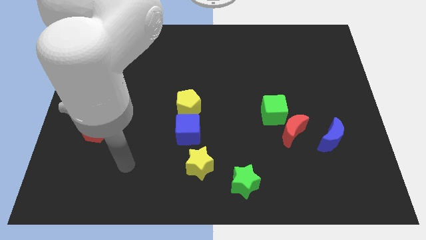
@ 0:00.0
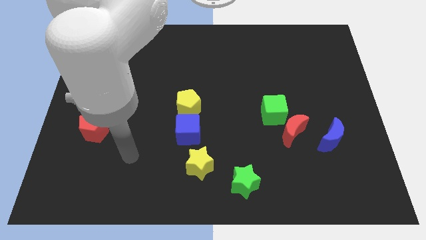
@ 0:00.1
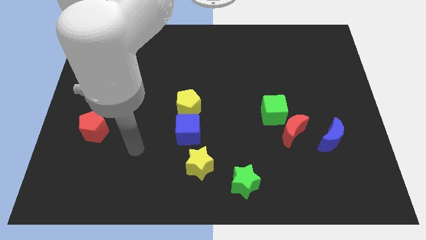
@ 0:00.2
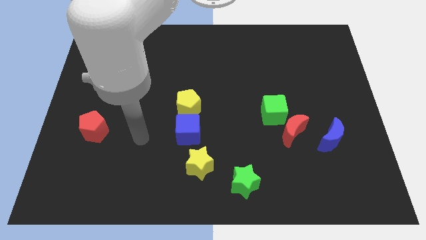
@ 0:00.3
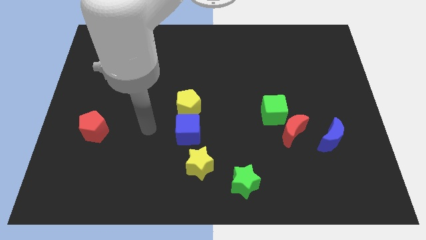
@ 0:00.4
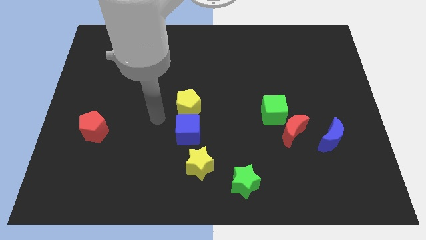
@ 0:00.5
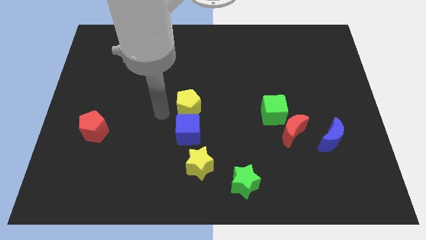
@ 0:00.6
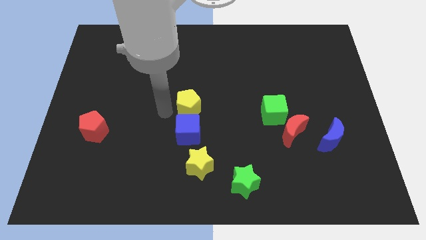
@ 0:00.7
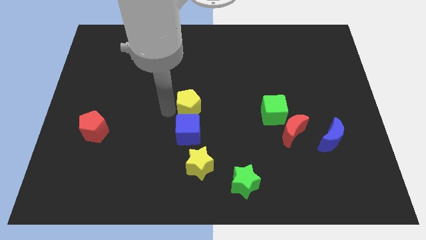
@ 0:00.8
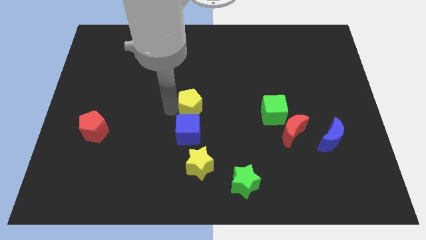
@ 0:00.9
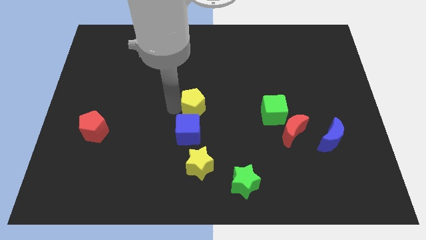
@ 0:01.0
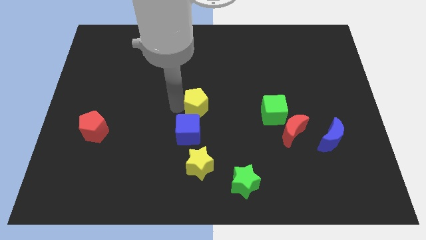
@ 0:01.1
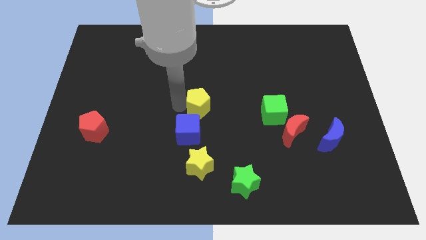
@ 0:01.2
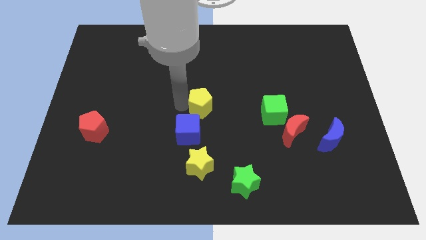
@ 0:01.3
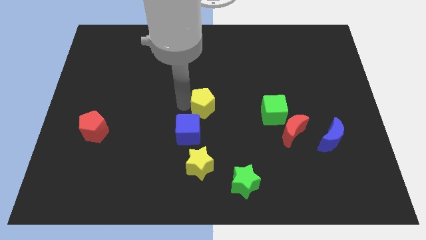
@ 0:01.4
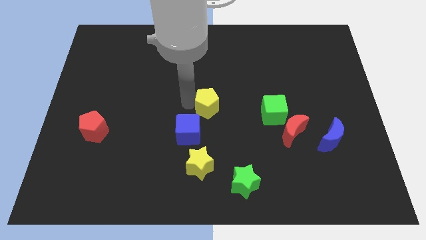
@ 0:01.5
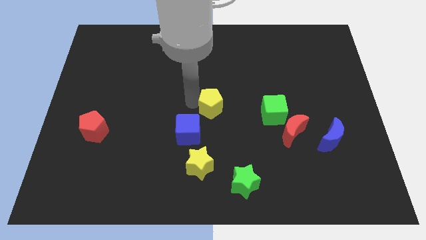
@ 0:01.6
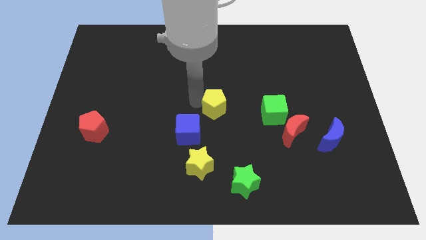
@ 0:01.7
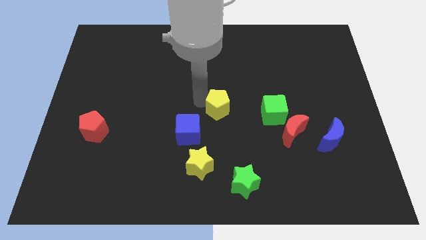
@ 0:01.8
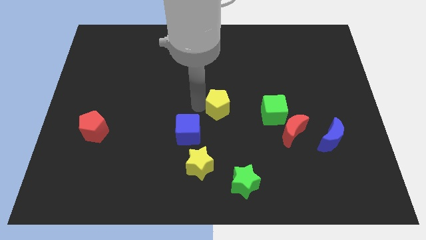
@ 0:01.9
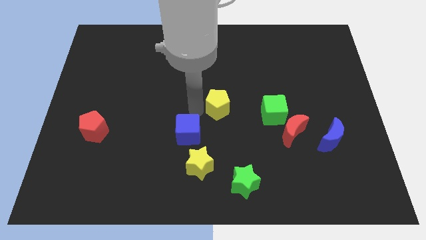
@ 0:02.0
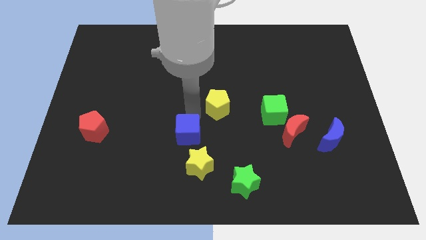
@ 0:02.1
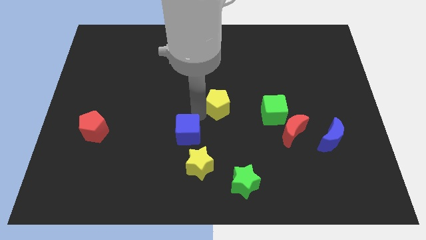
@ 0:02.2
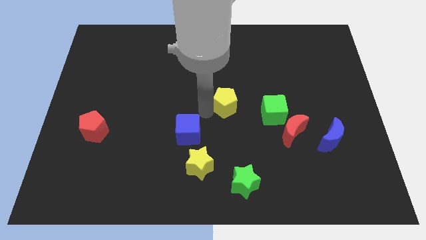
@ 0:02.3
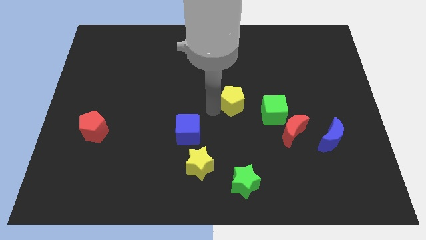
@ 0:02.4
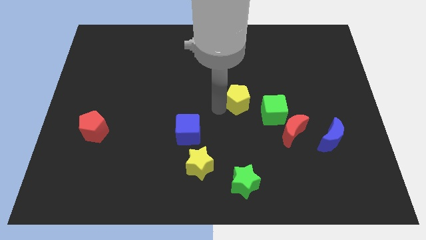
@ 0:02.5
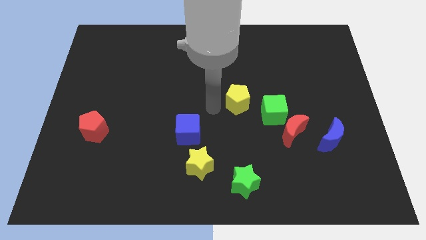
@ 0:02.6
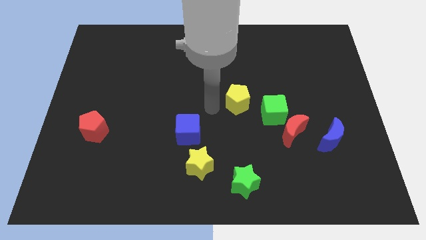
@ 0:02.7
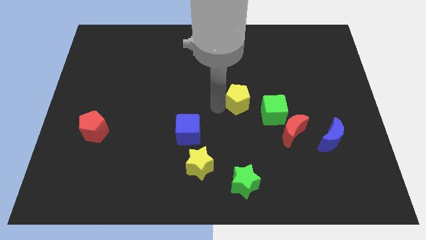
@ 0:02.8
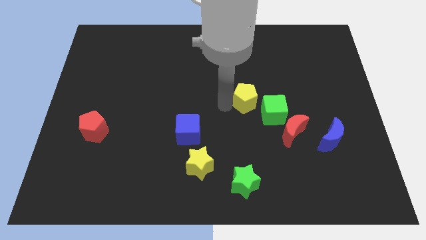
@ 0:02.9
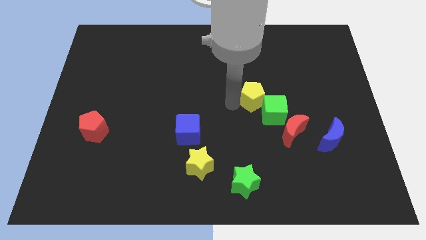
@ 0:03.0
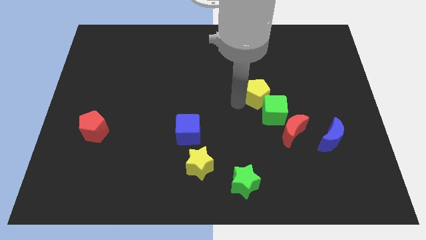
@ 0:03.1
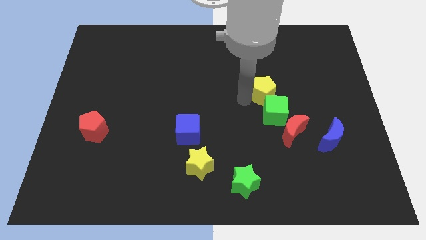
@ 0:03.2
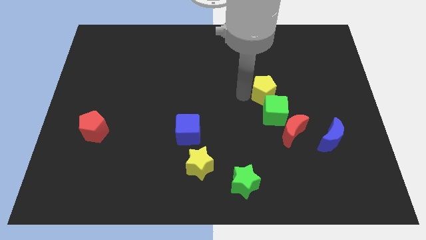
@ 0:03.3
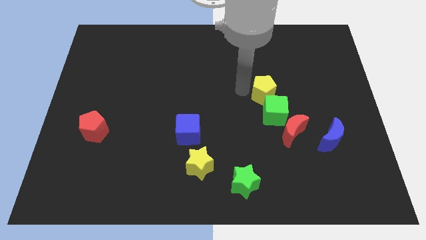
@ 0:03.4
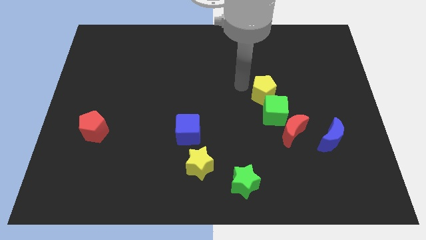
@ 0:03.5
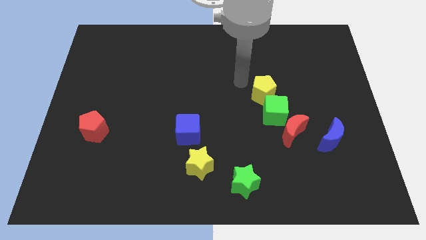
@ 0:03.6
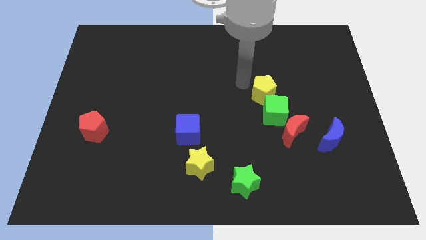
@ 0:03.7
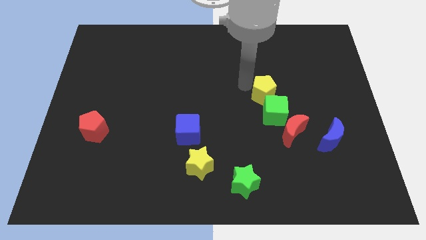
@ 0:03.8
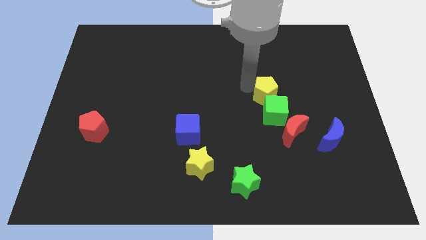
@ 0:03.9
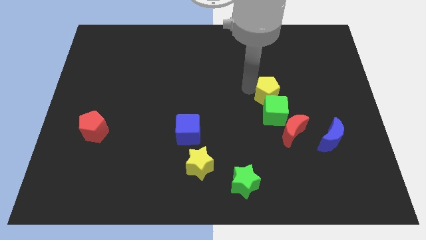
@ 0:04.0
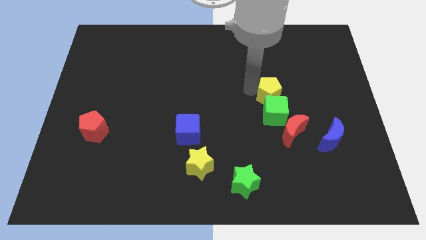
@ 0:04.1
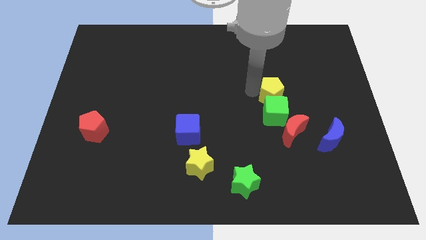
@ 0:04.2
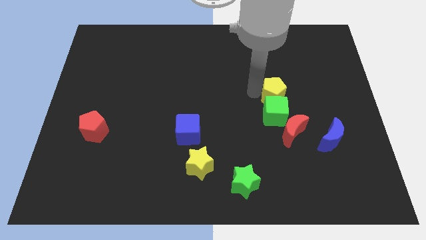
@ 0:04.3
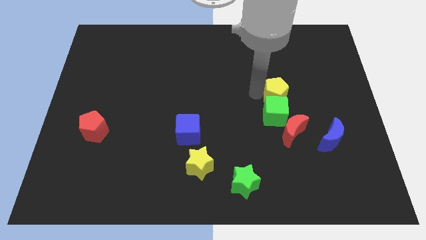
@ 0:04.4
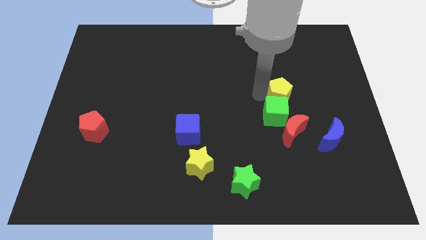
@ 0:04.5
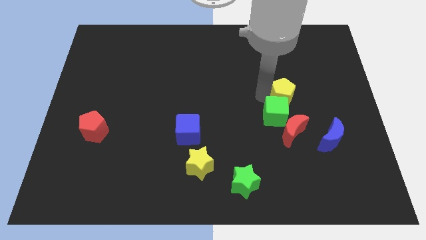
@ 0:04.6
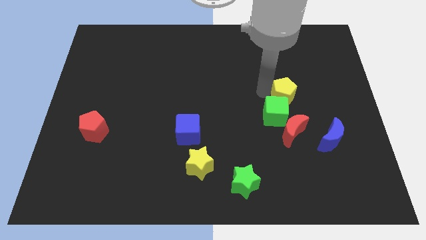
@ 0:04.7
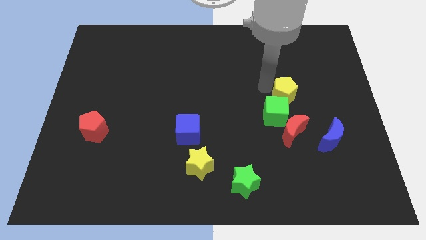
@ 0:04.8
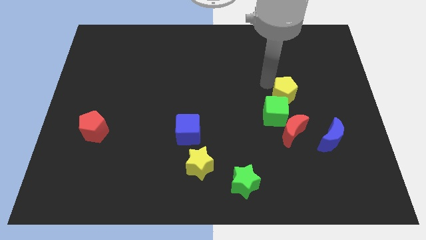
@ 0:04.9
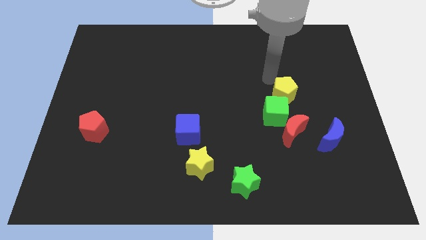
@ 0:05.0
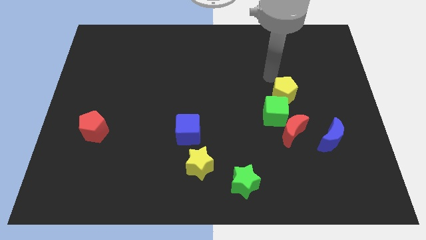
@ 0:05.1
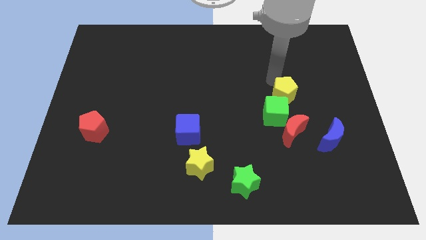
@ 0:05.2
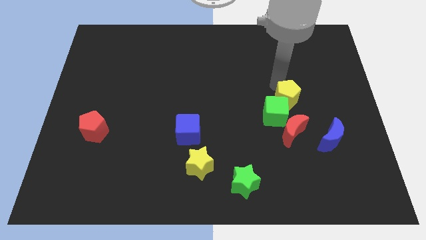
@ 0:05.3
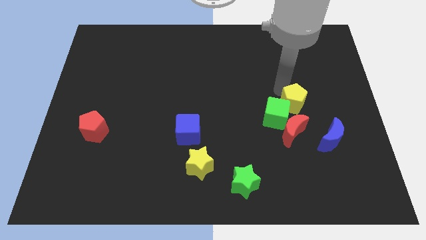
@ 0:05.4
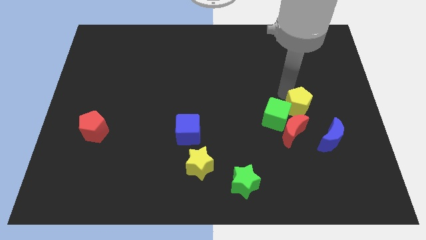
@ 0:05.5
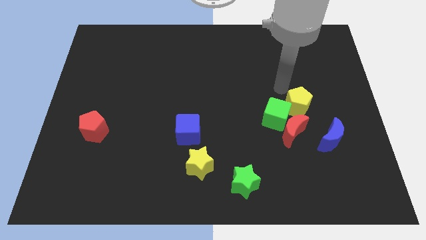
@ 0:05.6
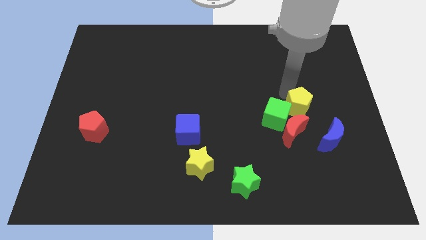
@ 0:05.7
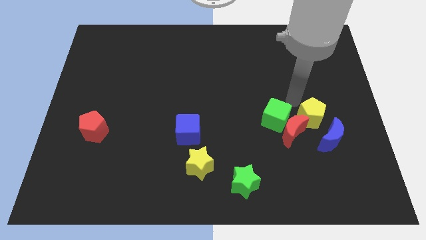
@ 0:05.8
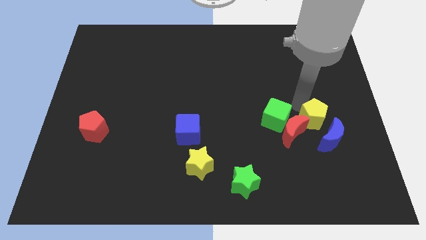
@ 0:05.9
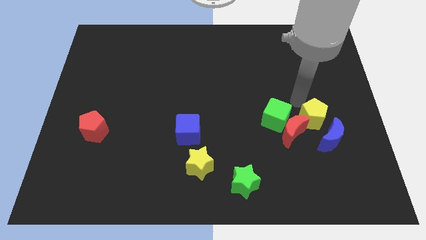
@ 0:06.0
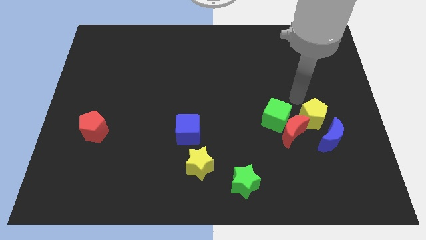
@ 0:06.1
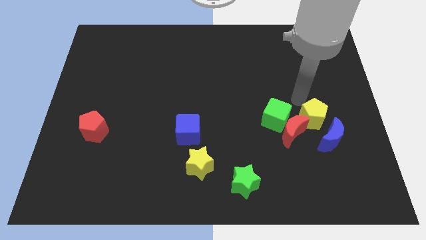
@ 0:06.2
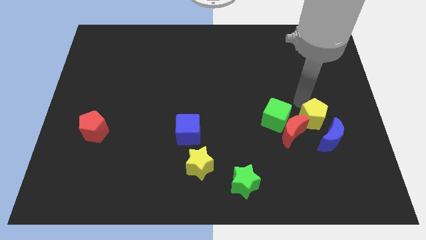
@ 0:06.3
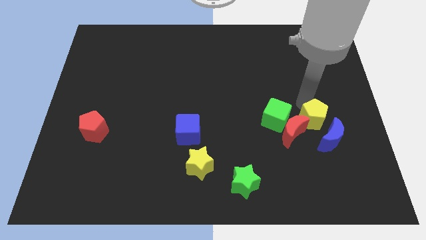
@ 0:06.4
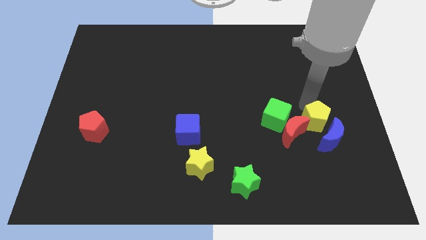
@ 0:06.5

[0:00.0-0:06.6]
put the yellow pentagon to the blue moon

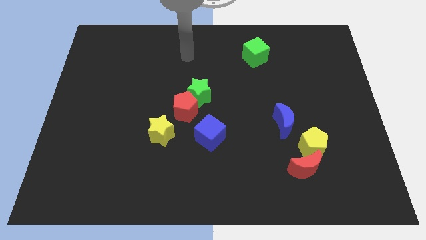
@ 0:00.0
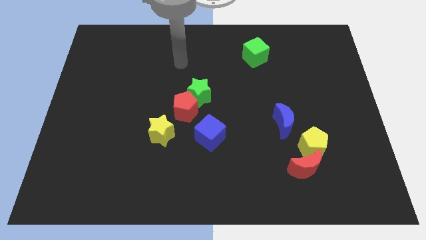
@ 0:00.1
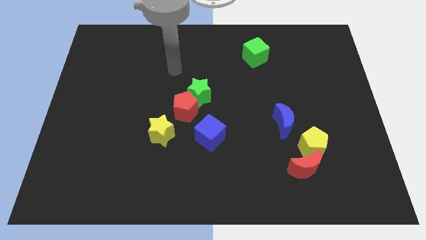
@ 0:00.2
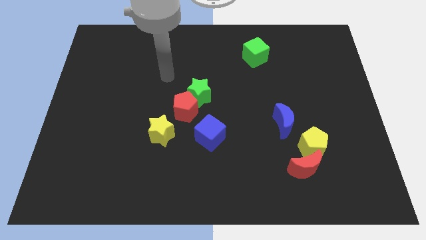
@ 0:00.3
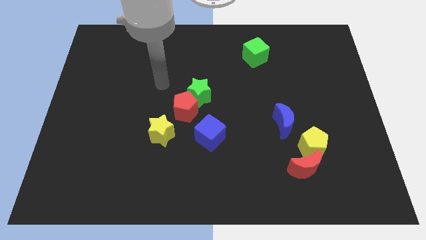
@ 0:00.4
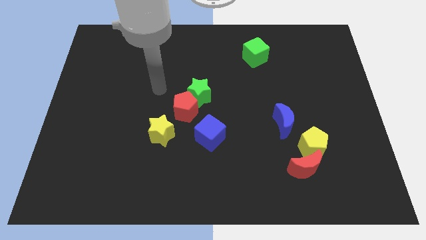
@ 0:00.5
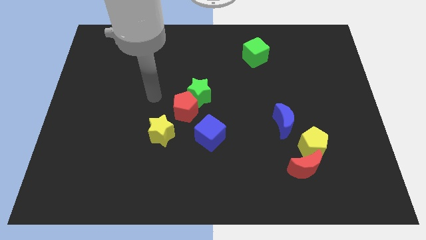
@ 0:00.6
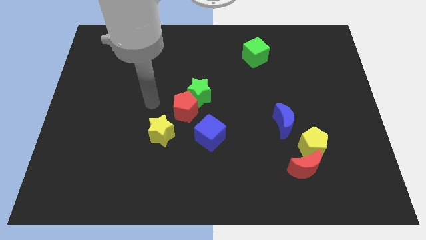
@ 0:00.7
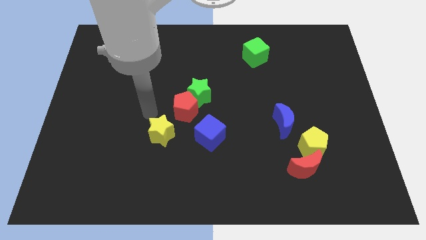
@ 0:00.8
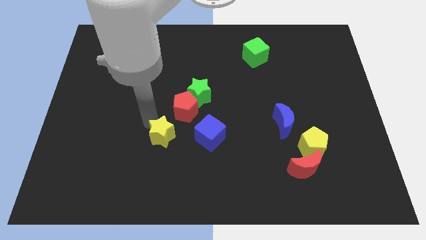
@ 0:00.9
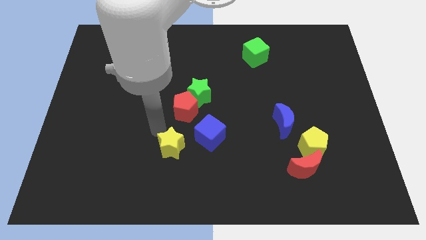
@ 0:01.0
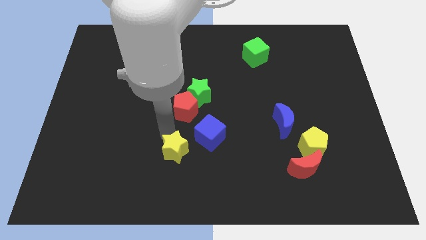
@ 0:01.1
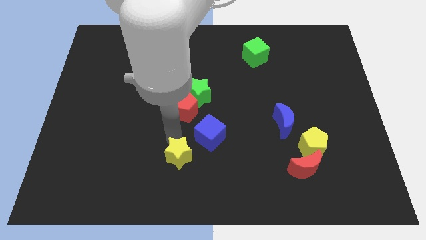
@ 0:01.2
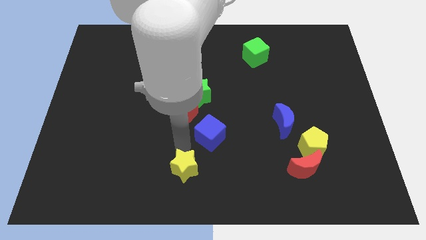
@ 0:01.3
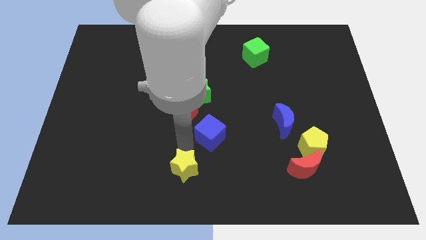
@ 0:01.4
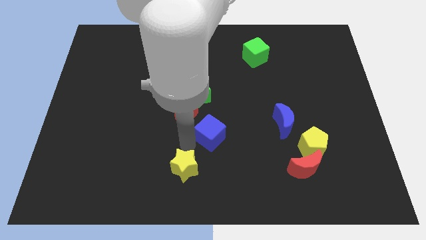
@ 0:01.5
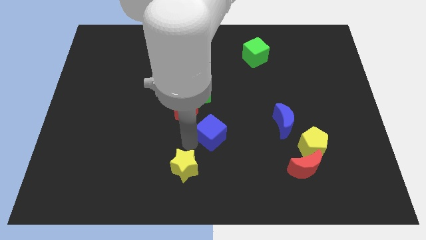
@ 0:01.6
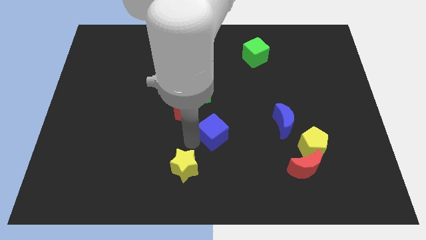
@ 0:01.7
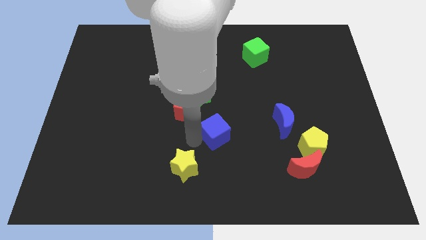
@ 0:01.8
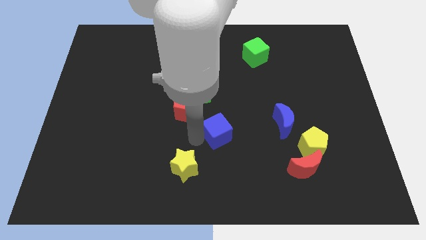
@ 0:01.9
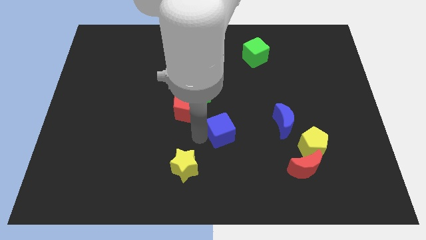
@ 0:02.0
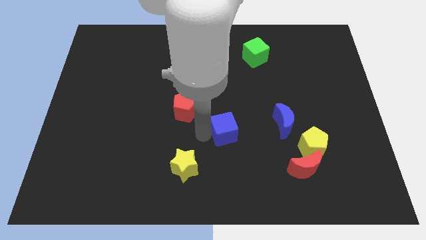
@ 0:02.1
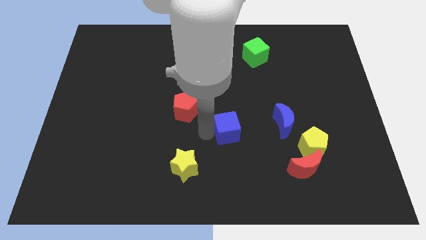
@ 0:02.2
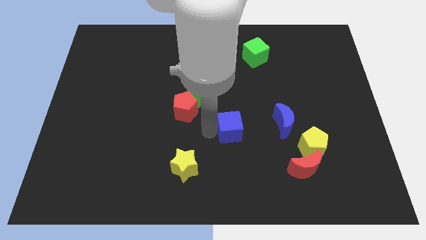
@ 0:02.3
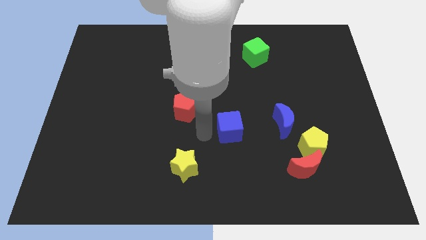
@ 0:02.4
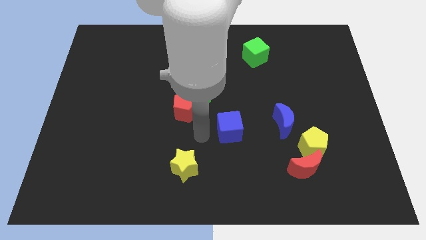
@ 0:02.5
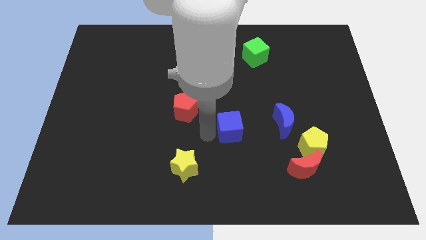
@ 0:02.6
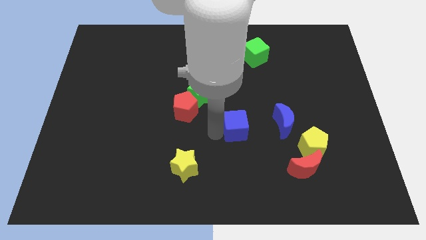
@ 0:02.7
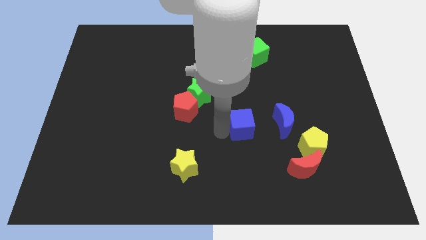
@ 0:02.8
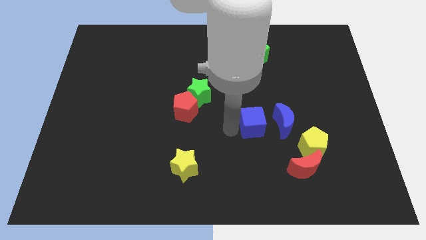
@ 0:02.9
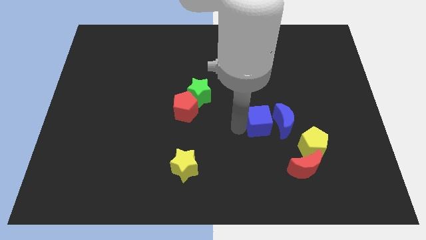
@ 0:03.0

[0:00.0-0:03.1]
slide the blue cube close to the blue moon
